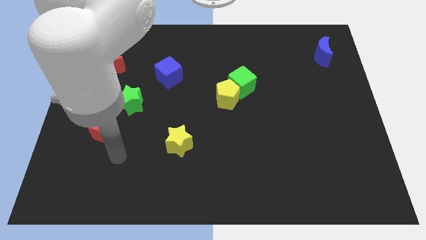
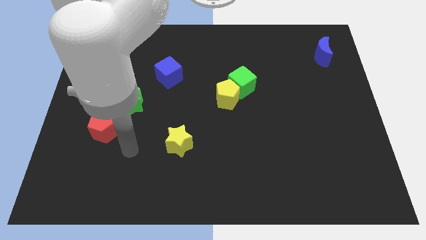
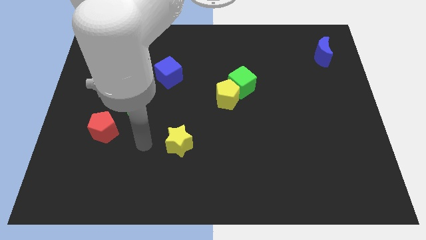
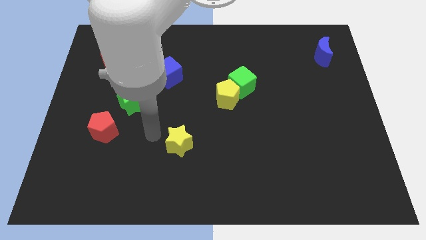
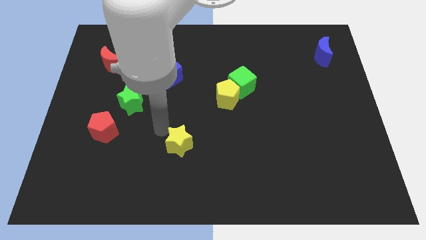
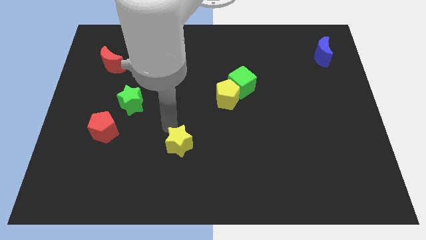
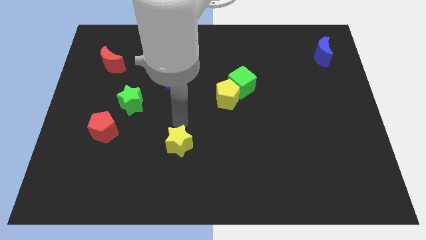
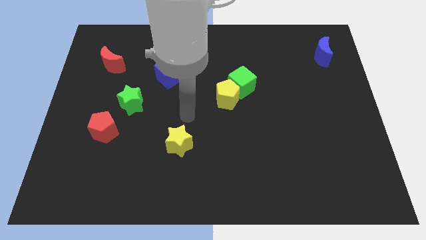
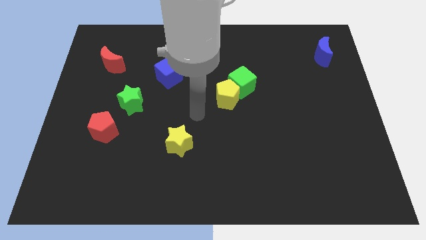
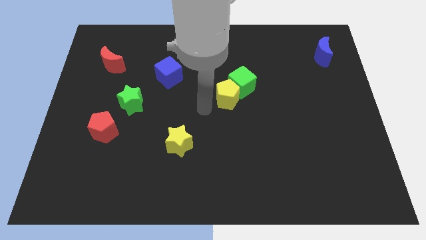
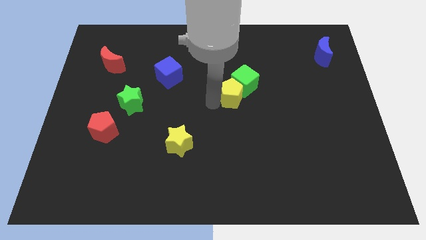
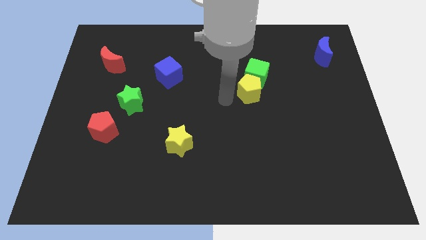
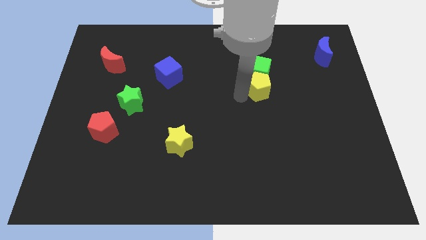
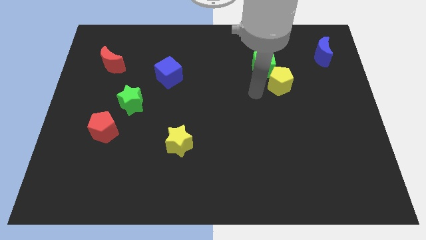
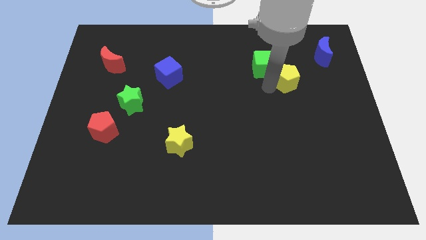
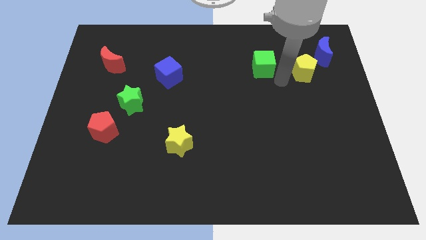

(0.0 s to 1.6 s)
separate the green cube from the yellow pentagon

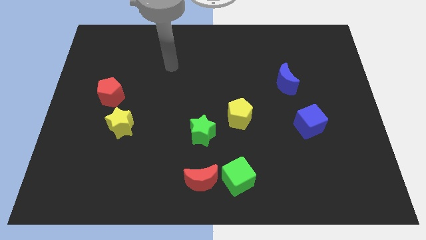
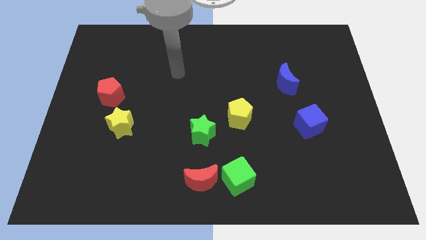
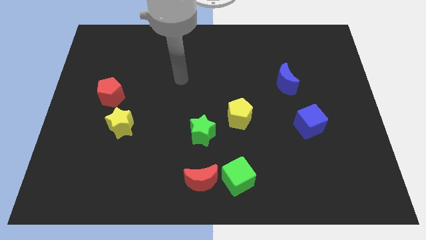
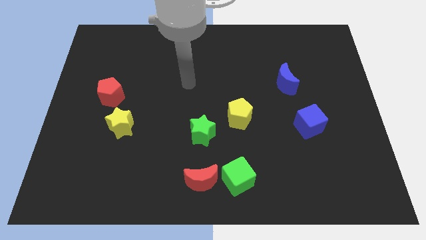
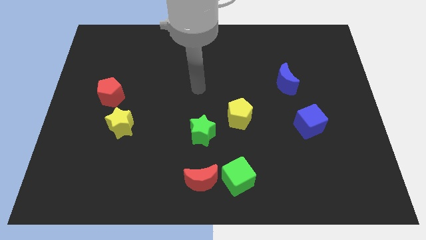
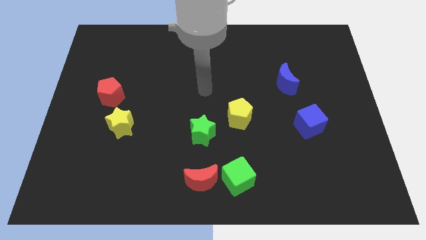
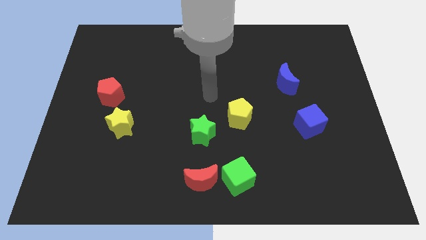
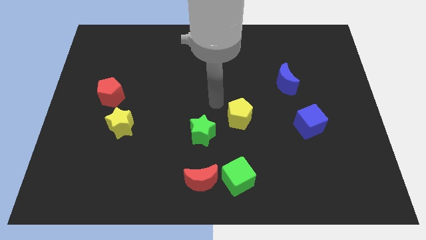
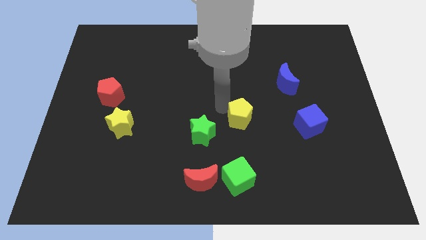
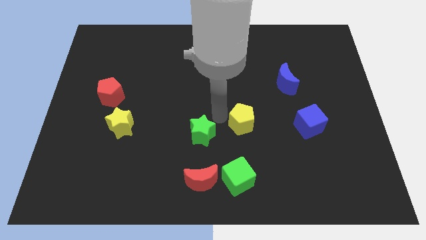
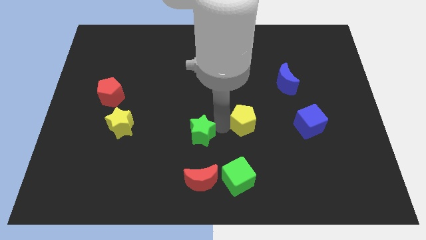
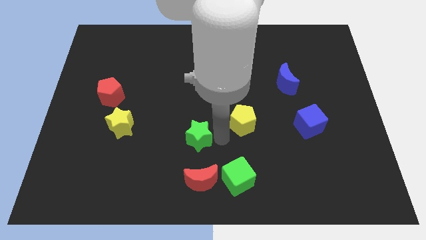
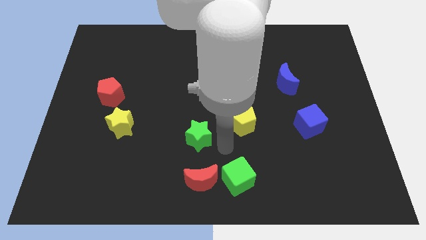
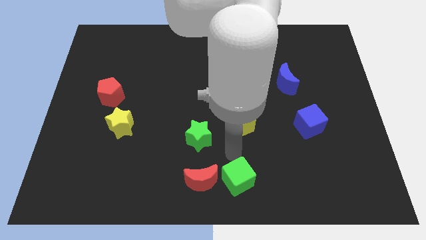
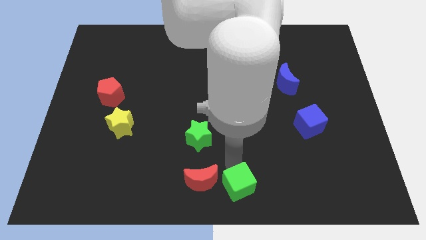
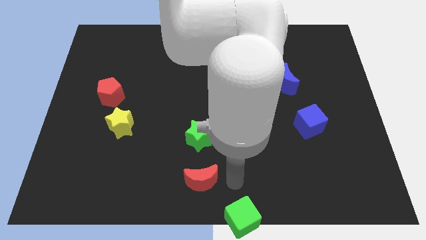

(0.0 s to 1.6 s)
pull the red moon apart from the green cube

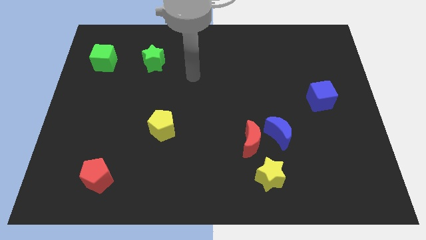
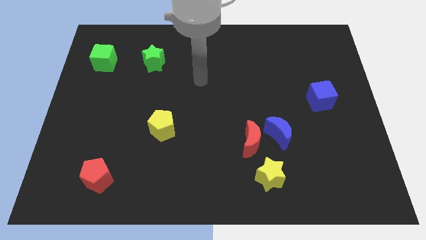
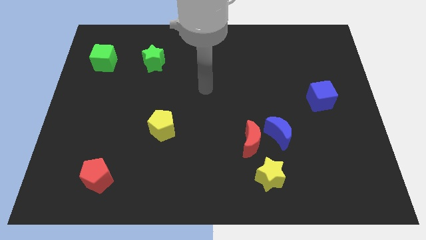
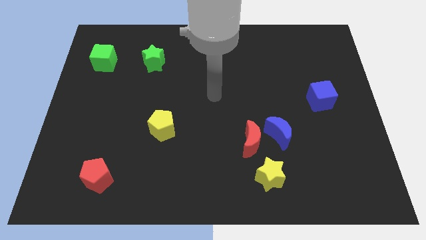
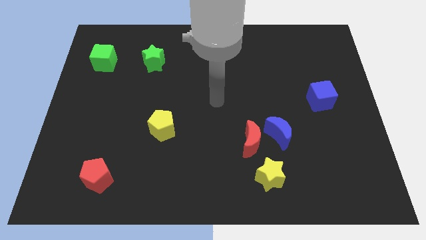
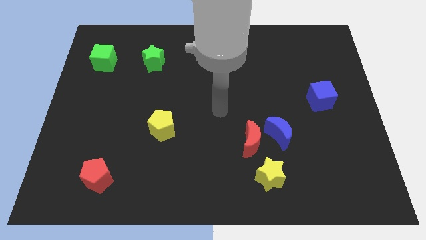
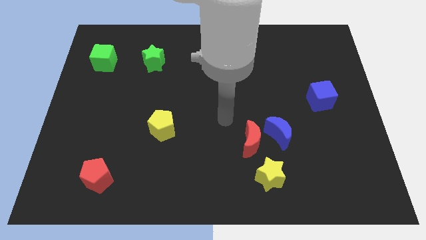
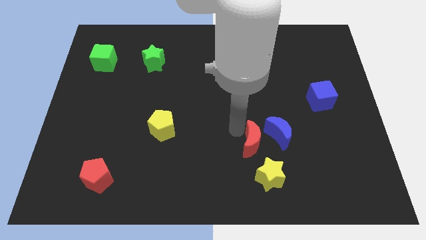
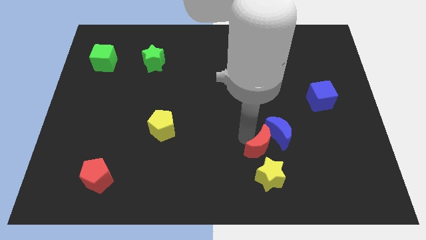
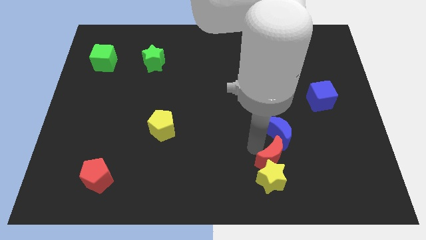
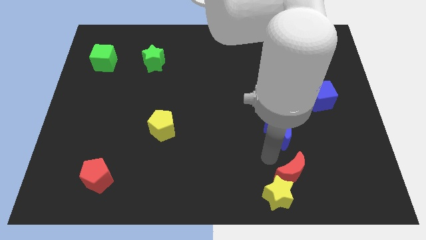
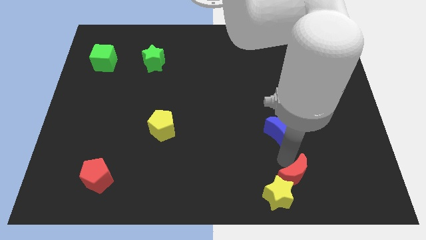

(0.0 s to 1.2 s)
pull the blue moon apart from the red moon

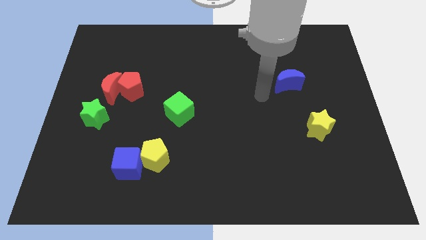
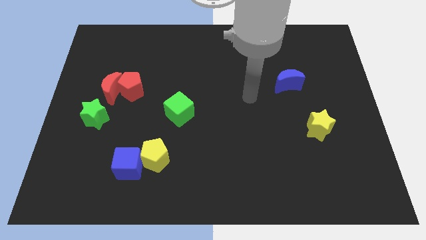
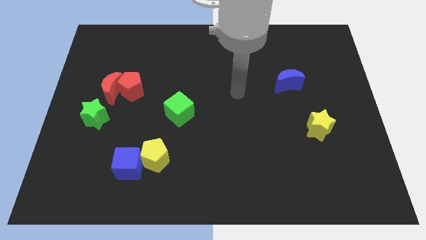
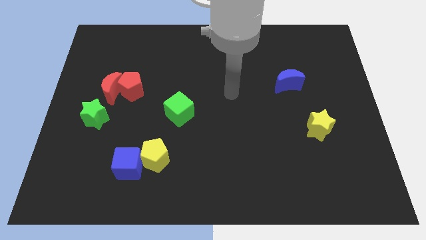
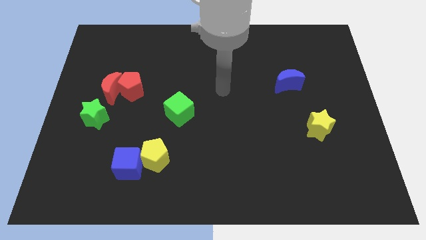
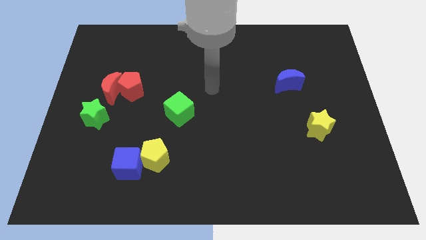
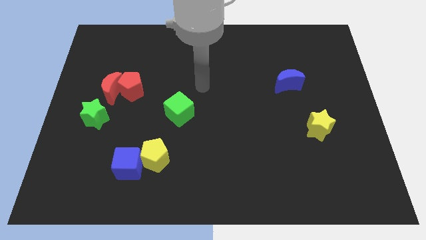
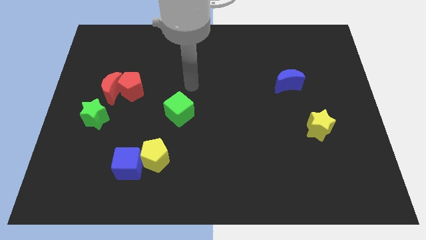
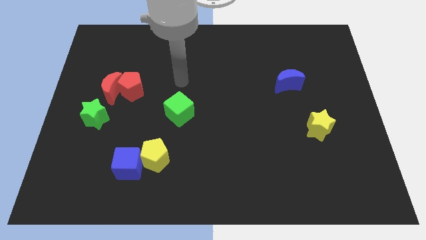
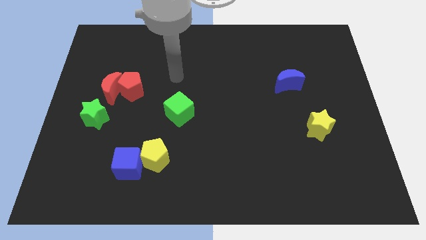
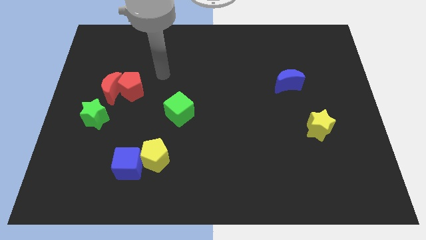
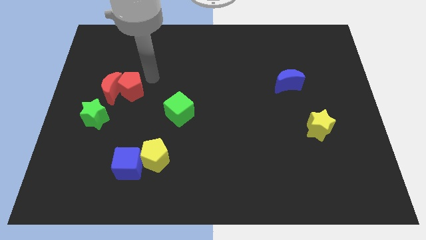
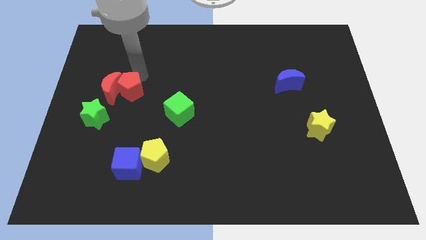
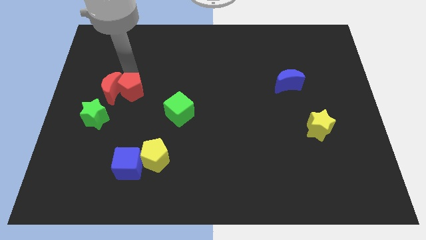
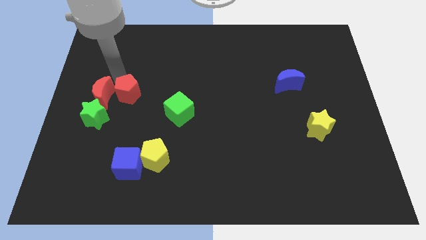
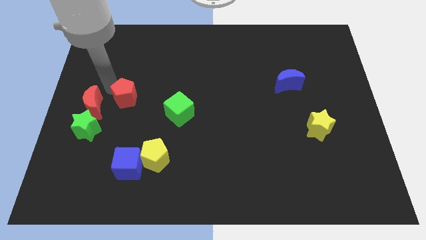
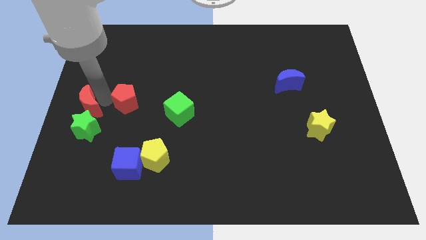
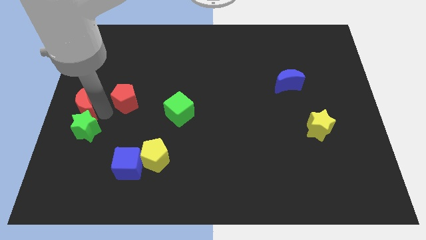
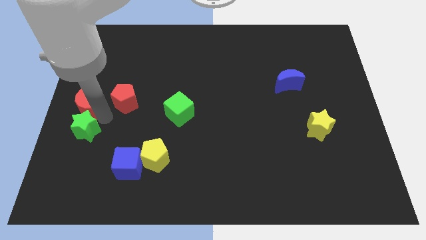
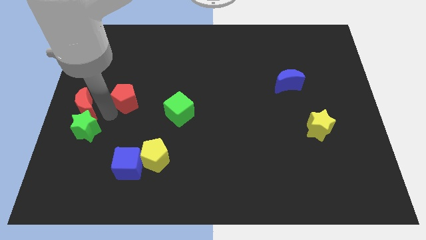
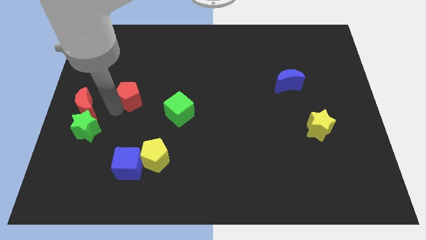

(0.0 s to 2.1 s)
move the red pentagon away from the red moon

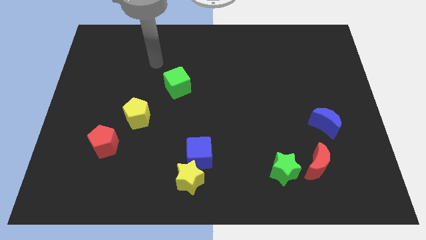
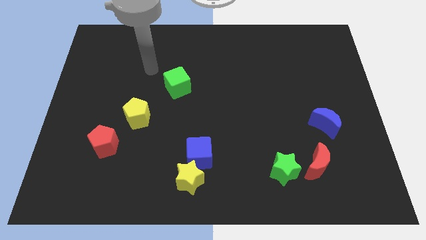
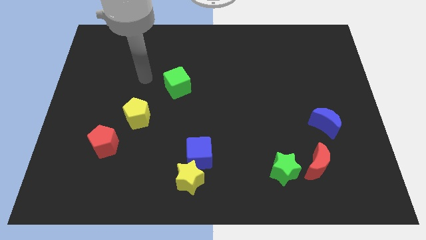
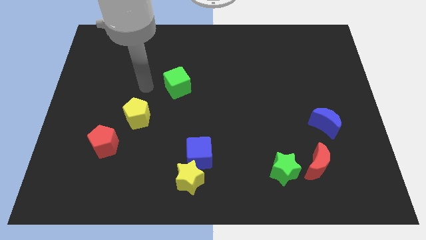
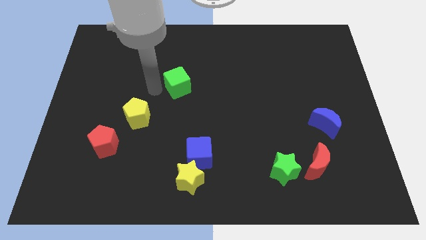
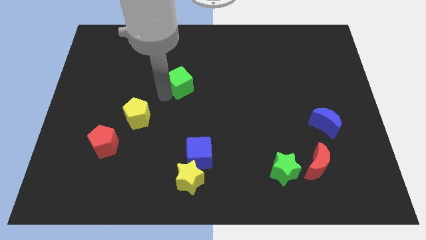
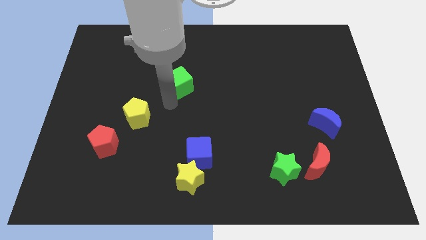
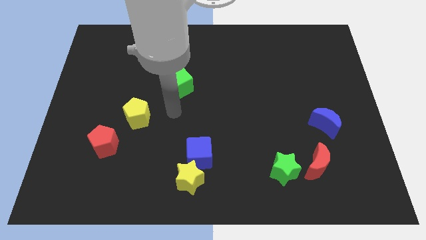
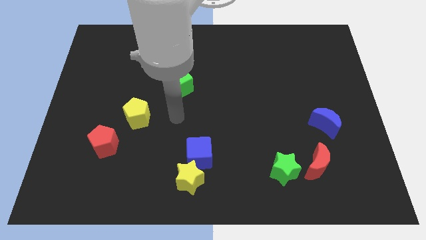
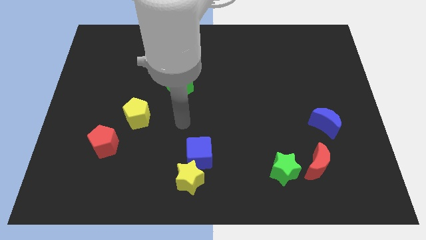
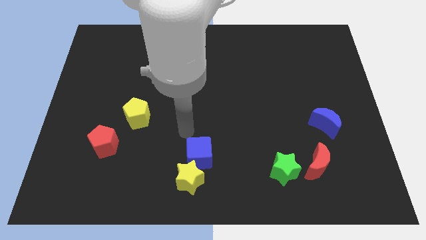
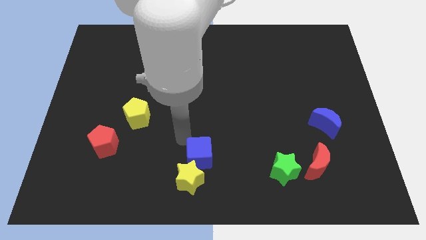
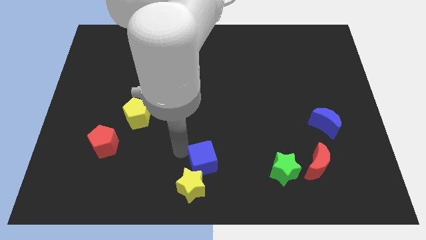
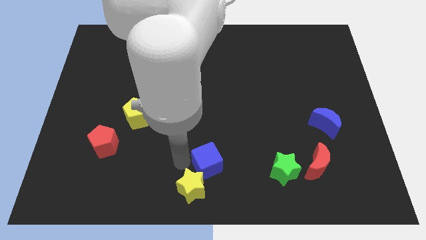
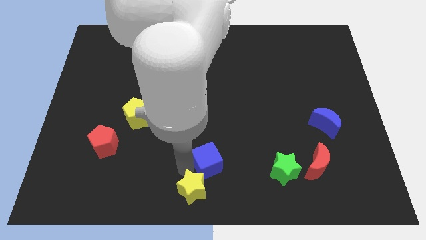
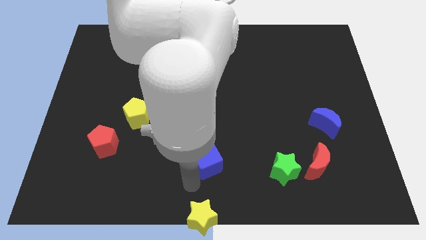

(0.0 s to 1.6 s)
separate the blue cube from the yellow star

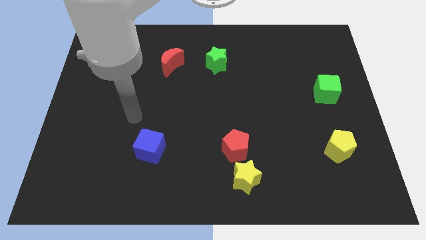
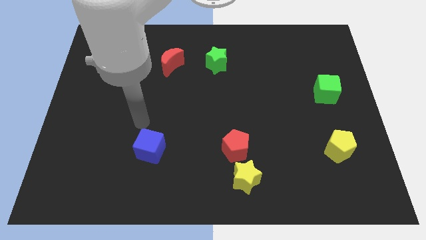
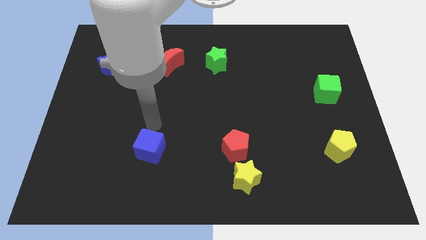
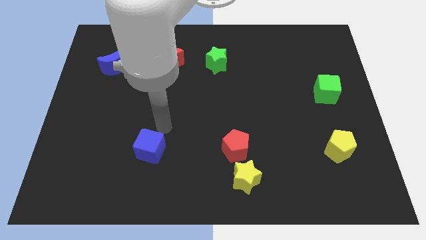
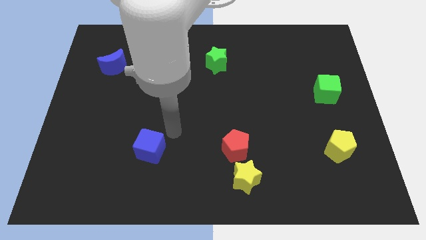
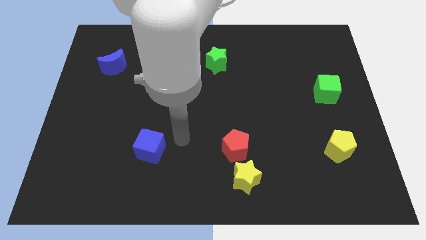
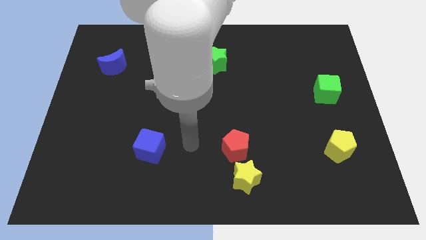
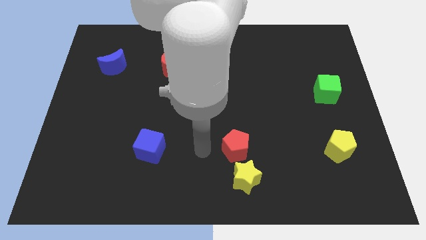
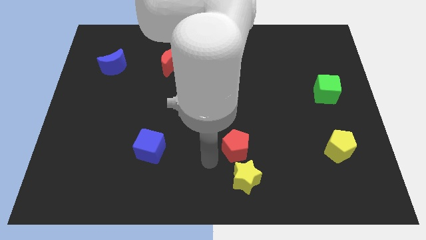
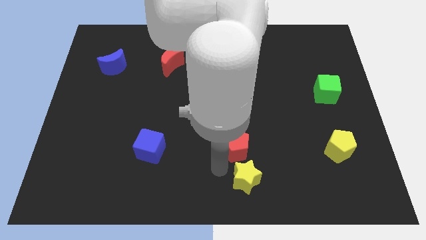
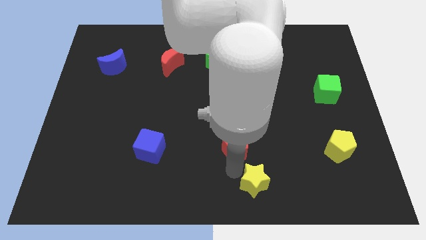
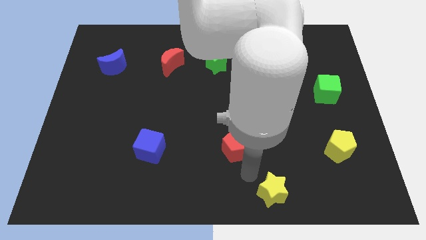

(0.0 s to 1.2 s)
separate the red pentagon from the yellow star
